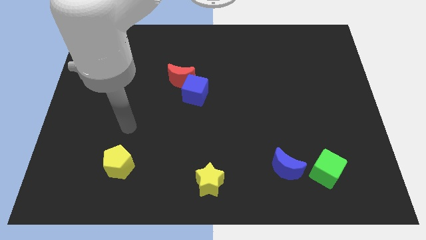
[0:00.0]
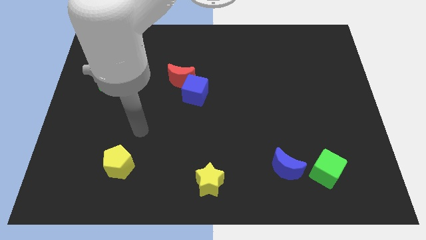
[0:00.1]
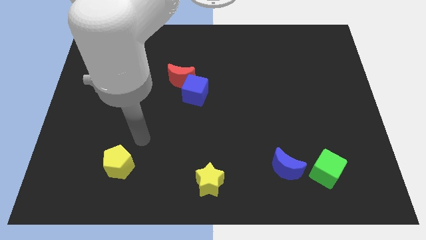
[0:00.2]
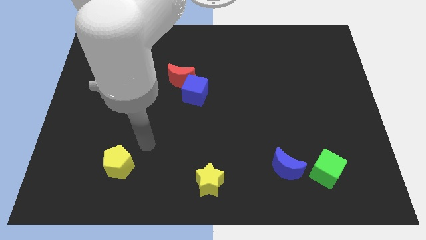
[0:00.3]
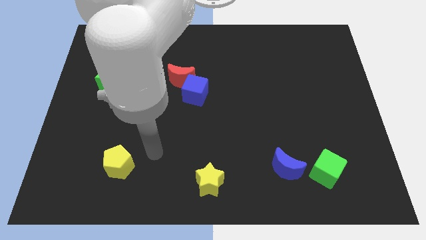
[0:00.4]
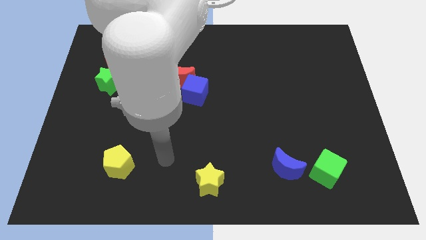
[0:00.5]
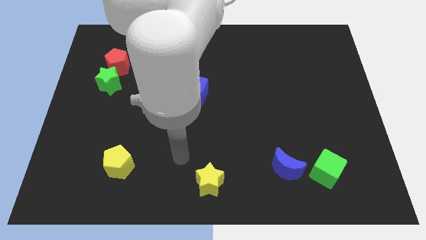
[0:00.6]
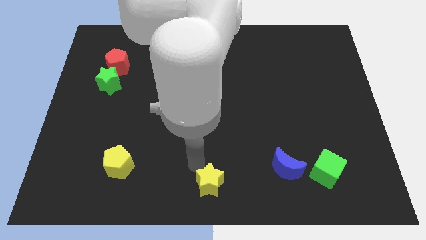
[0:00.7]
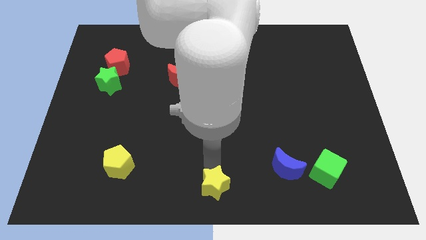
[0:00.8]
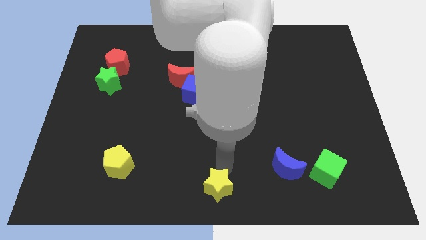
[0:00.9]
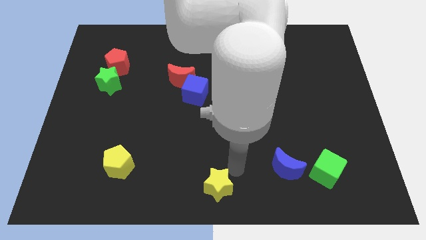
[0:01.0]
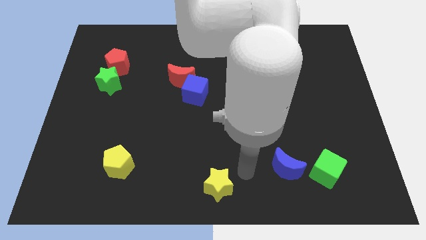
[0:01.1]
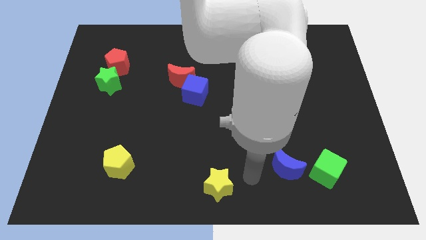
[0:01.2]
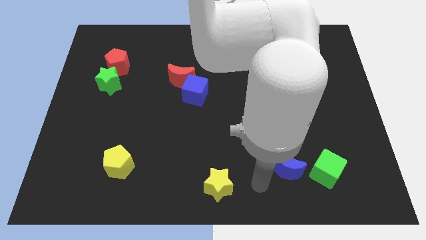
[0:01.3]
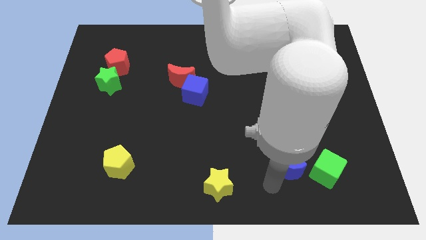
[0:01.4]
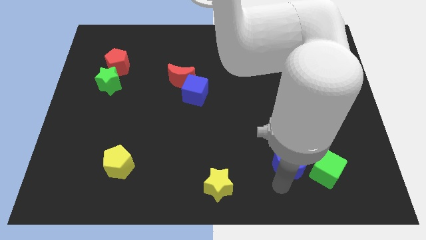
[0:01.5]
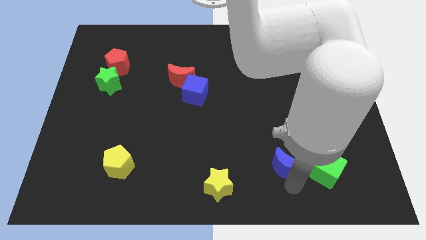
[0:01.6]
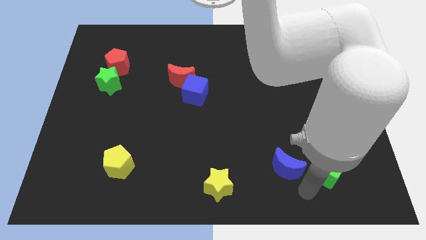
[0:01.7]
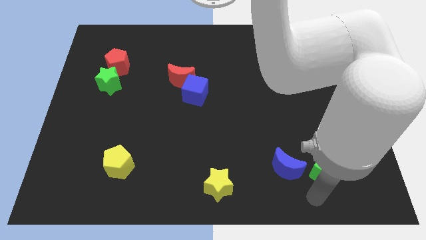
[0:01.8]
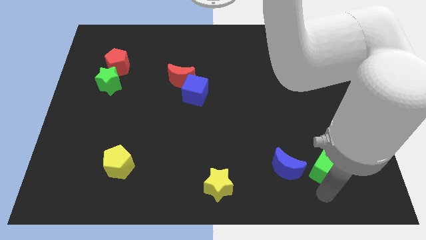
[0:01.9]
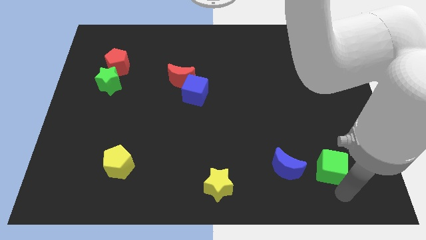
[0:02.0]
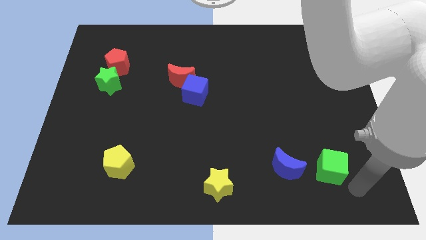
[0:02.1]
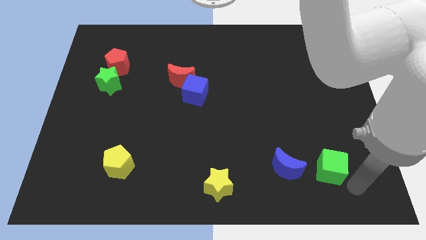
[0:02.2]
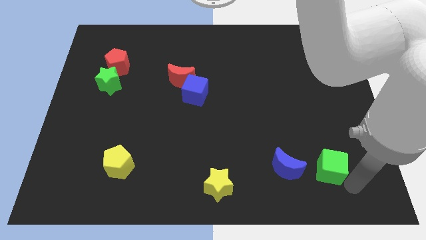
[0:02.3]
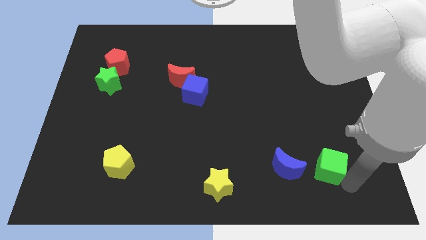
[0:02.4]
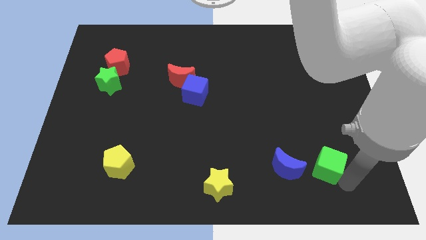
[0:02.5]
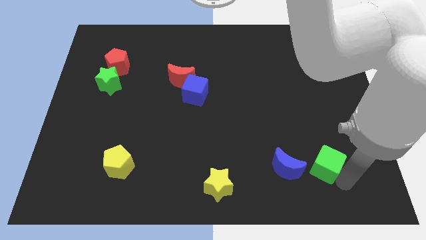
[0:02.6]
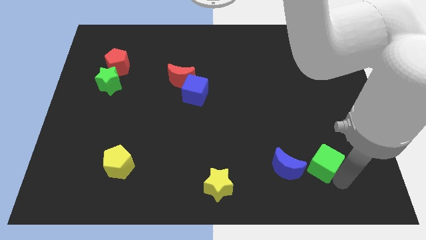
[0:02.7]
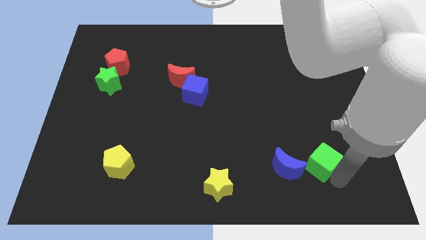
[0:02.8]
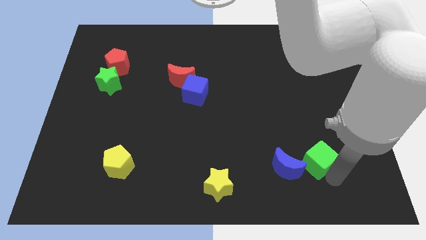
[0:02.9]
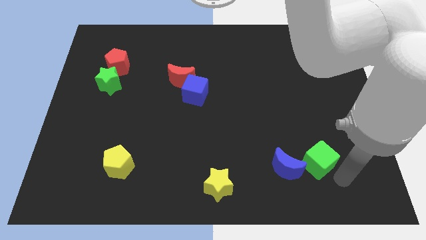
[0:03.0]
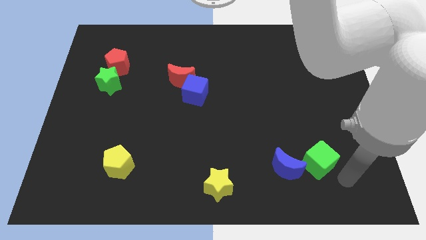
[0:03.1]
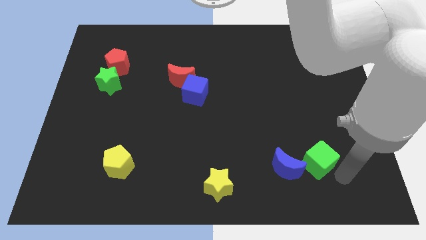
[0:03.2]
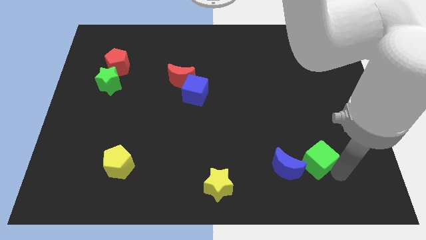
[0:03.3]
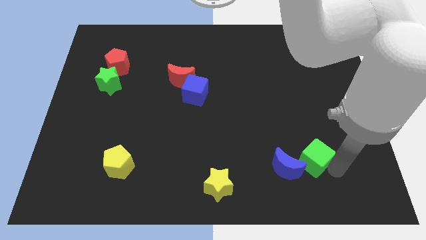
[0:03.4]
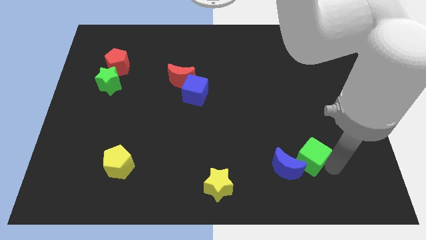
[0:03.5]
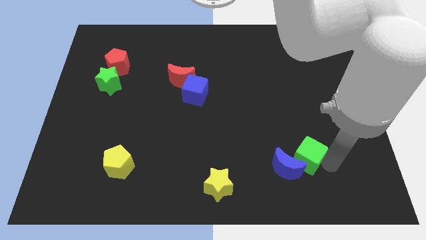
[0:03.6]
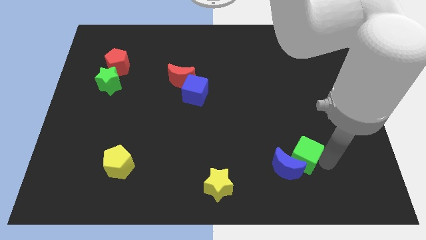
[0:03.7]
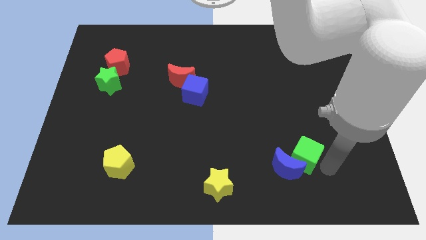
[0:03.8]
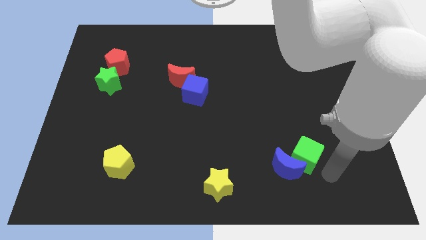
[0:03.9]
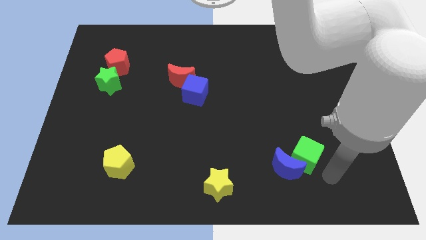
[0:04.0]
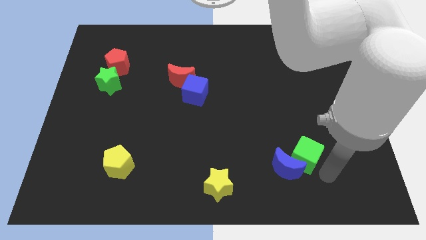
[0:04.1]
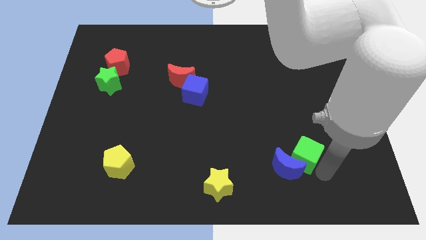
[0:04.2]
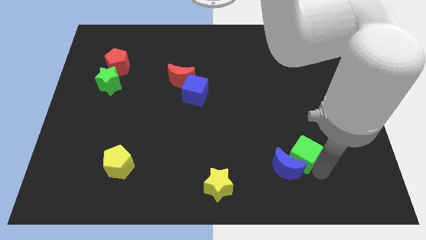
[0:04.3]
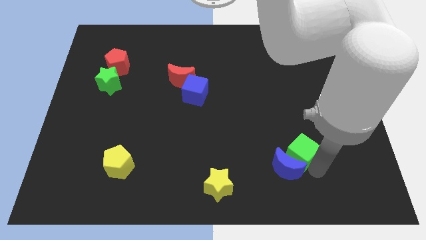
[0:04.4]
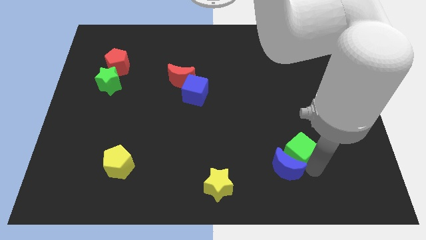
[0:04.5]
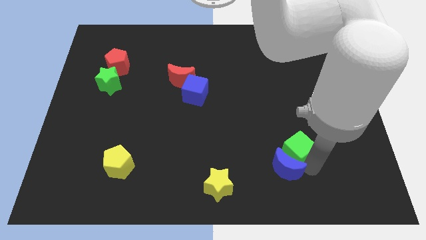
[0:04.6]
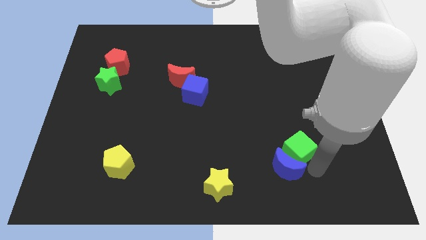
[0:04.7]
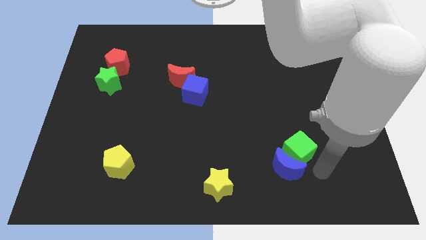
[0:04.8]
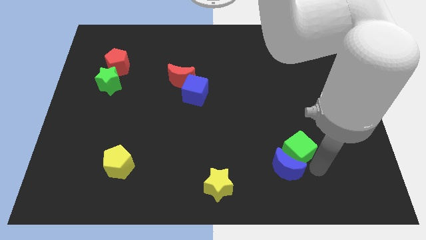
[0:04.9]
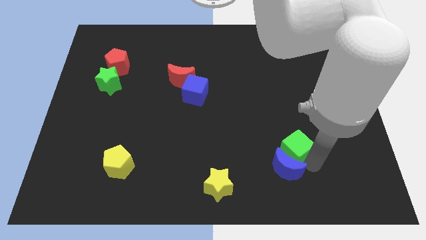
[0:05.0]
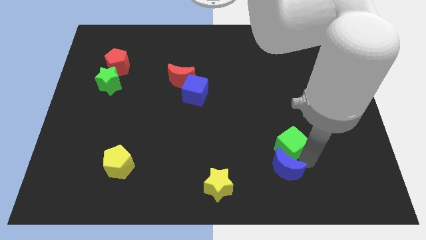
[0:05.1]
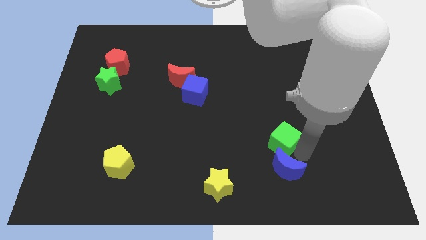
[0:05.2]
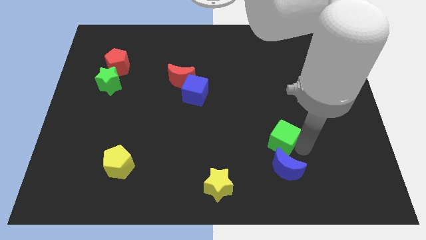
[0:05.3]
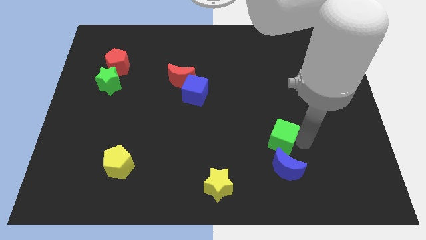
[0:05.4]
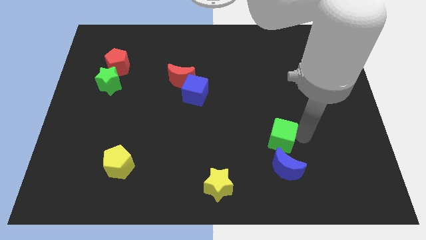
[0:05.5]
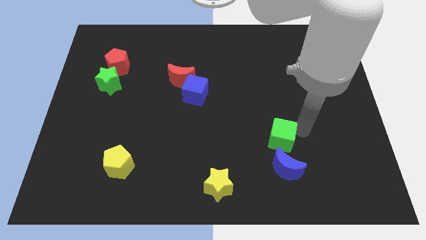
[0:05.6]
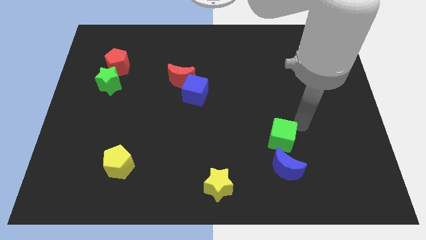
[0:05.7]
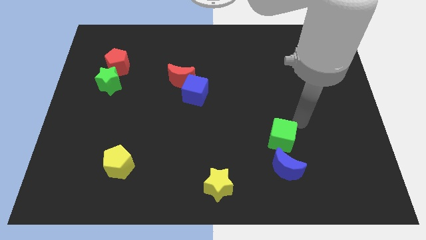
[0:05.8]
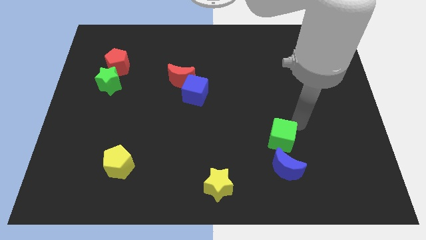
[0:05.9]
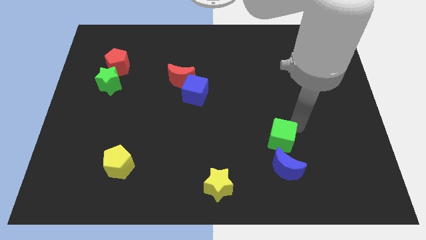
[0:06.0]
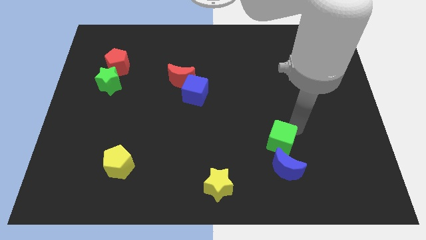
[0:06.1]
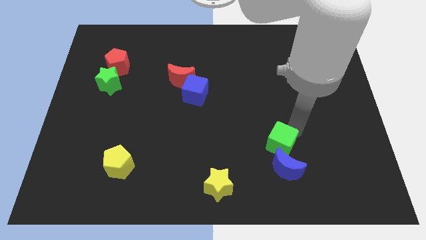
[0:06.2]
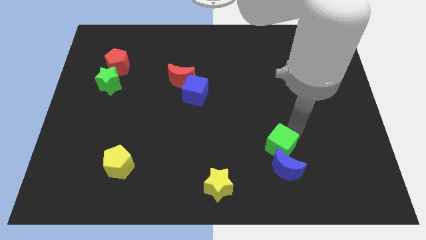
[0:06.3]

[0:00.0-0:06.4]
slightly slide the green cube to the left

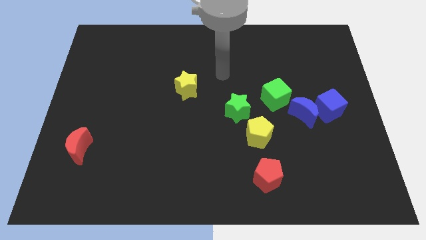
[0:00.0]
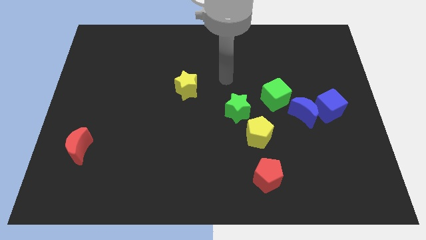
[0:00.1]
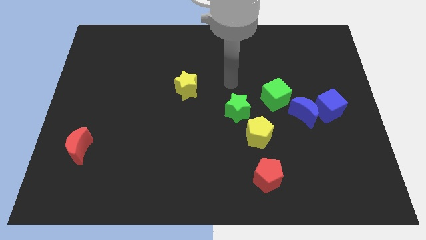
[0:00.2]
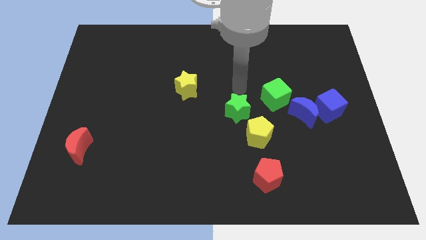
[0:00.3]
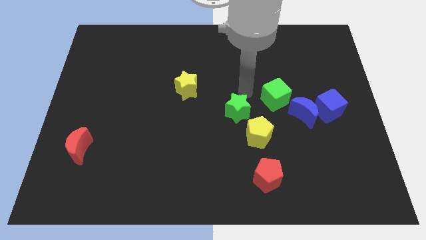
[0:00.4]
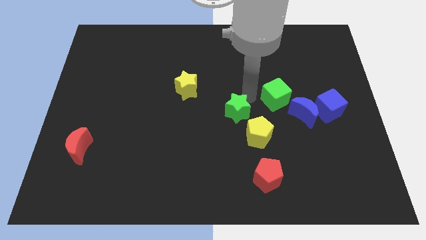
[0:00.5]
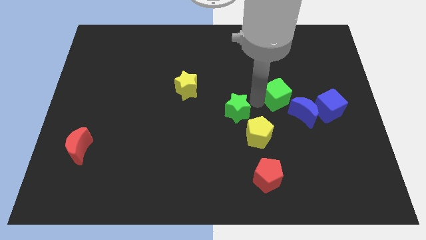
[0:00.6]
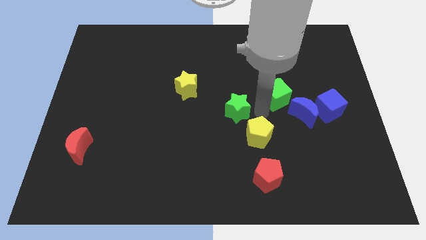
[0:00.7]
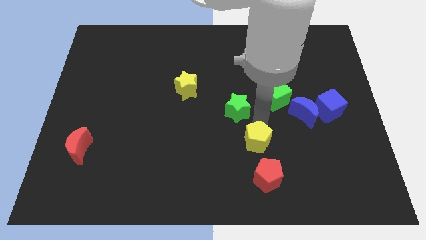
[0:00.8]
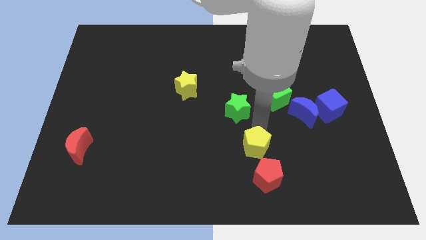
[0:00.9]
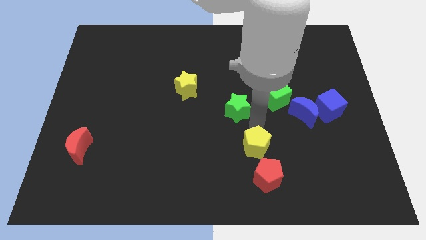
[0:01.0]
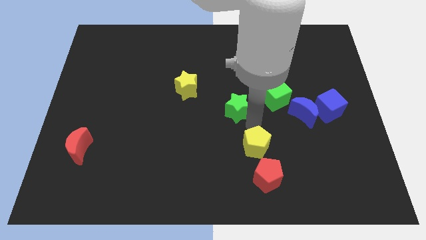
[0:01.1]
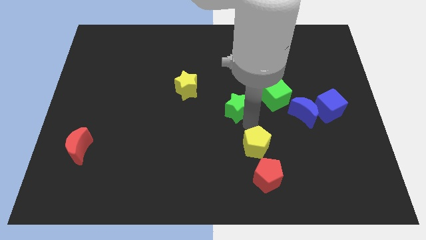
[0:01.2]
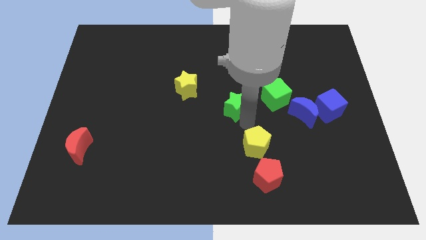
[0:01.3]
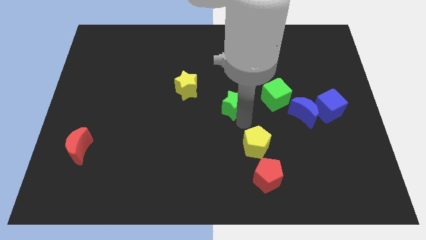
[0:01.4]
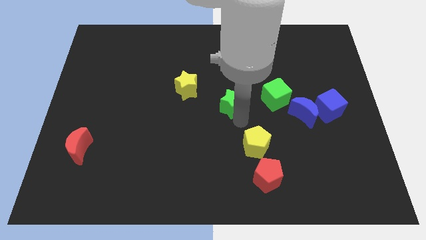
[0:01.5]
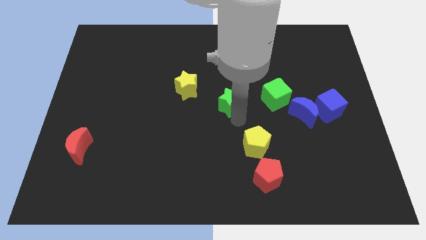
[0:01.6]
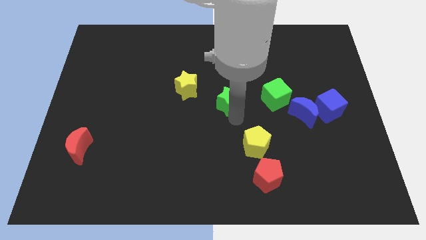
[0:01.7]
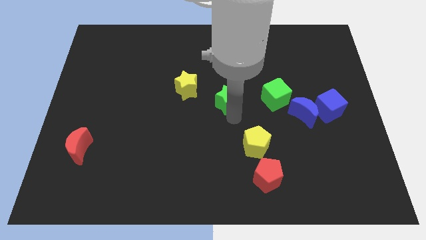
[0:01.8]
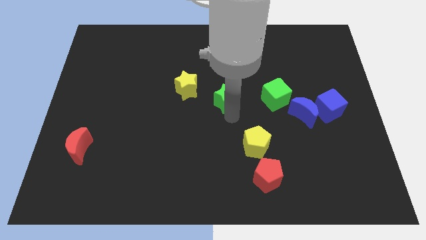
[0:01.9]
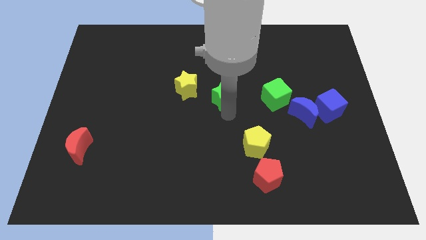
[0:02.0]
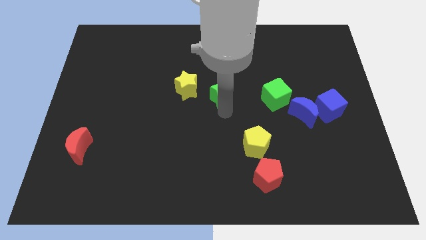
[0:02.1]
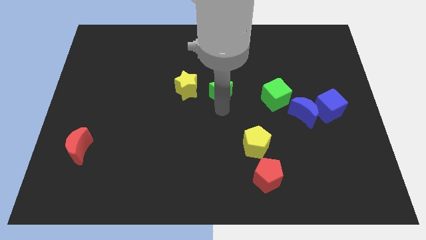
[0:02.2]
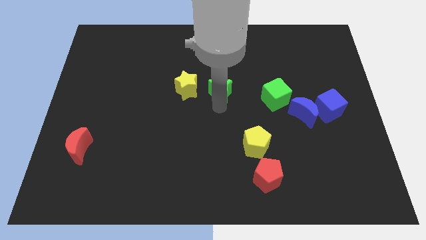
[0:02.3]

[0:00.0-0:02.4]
push the green star up and then to the left somewhat
